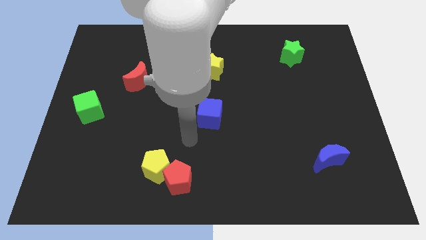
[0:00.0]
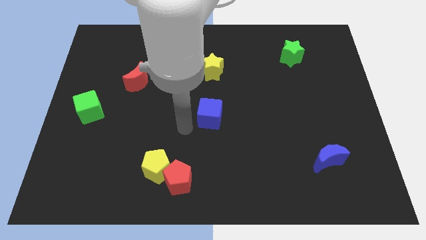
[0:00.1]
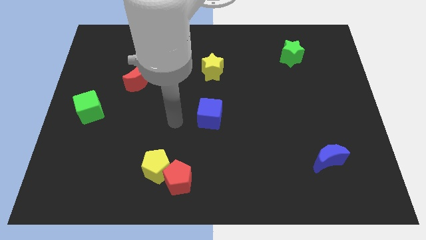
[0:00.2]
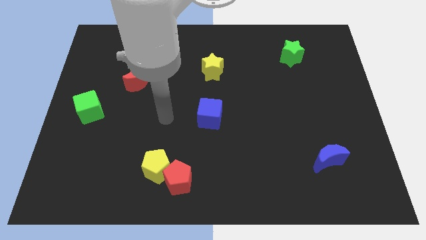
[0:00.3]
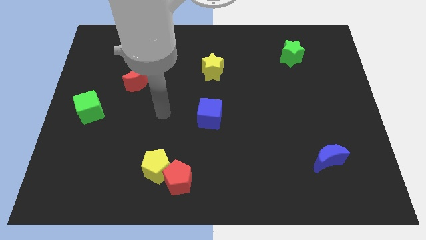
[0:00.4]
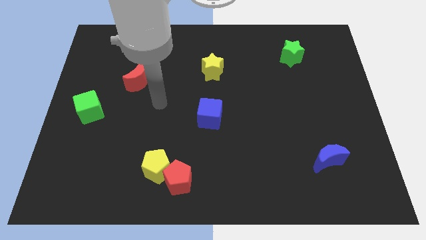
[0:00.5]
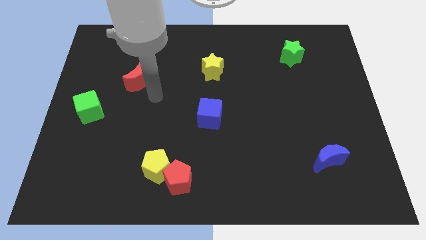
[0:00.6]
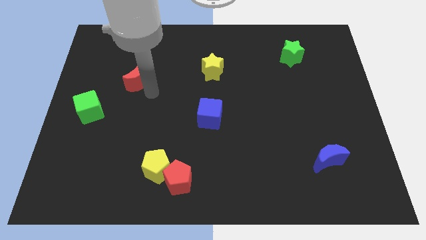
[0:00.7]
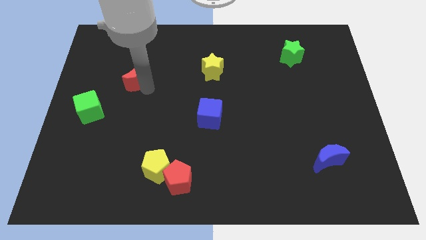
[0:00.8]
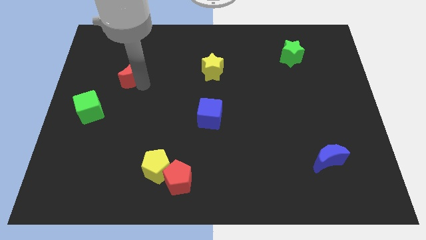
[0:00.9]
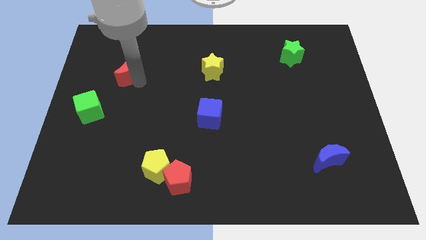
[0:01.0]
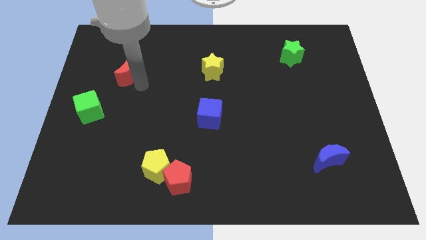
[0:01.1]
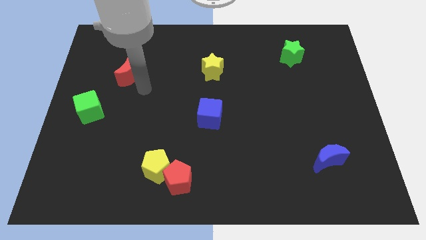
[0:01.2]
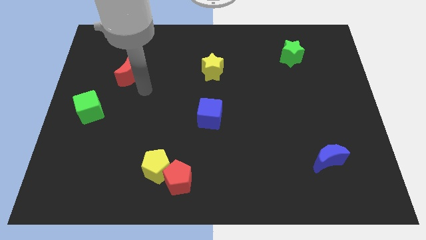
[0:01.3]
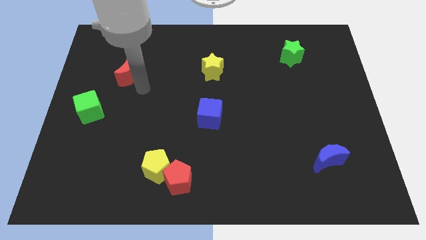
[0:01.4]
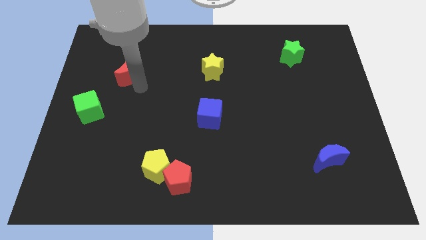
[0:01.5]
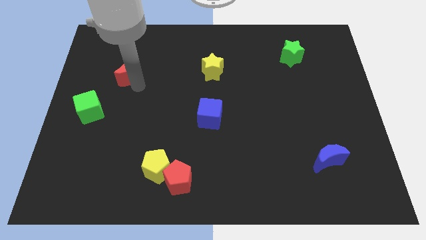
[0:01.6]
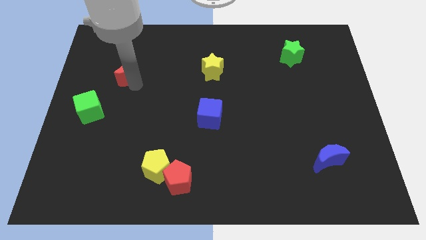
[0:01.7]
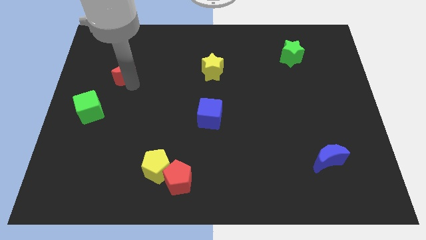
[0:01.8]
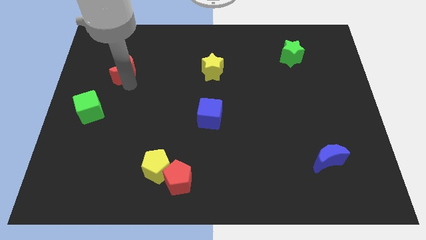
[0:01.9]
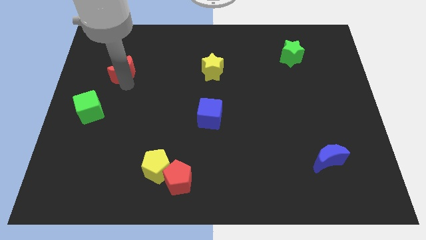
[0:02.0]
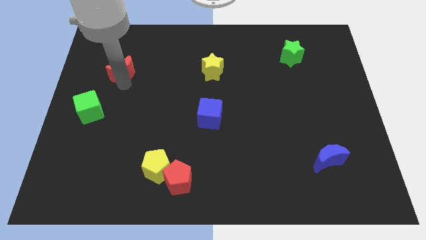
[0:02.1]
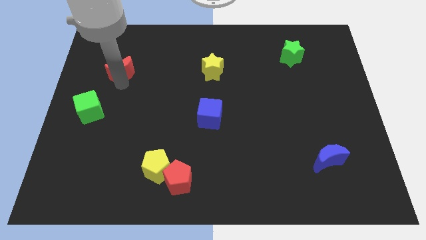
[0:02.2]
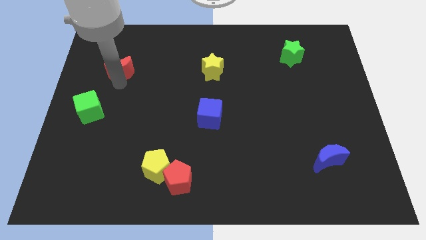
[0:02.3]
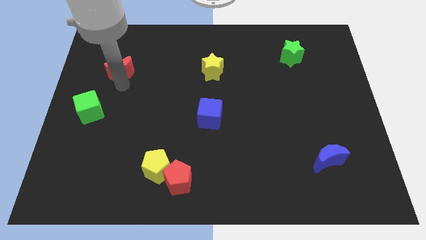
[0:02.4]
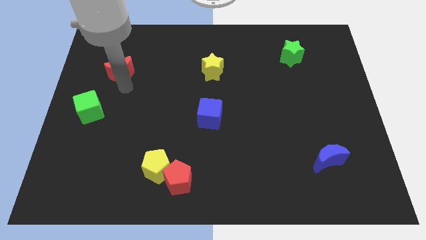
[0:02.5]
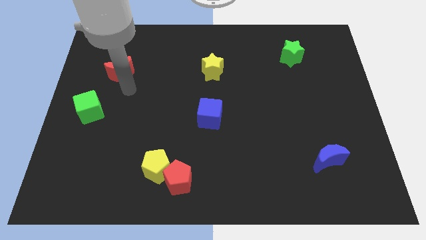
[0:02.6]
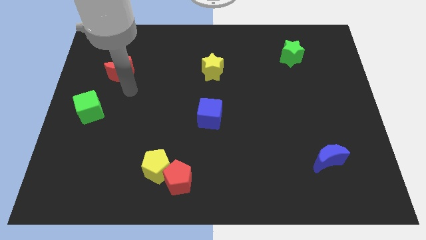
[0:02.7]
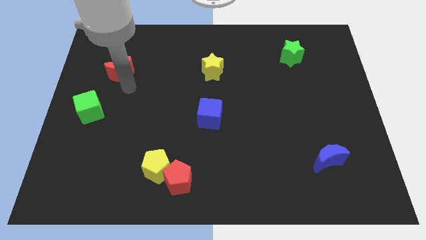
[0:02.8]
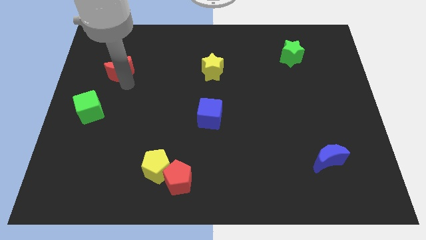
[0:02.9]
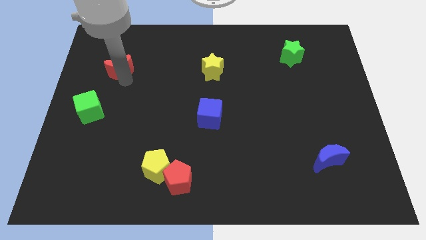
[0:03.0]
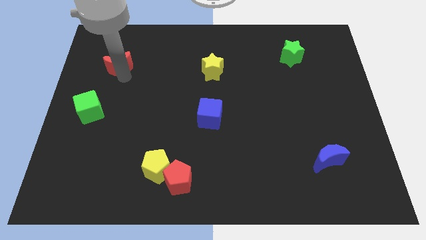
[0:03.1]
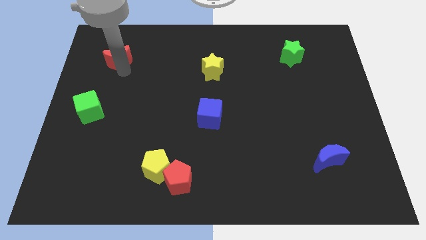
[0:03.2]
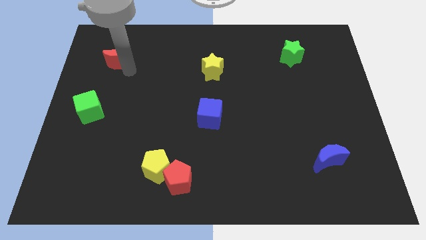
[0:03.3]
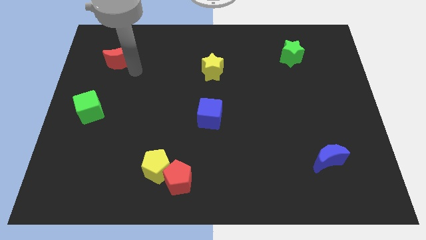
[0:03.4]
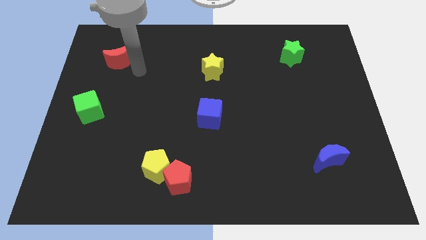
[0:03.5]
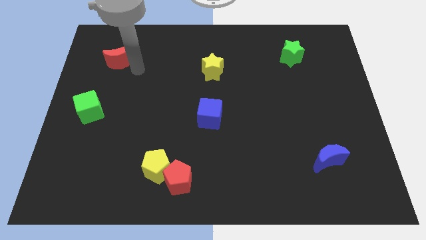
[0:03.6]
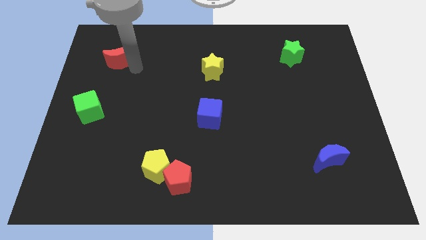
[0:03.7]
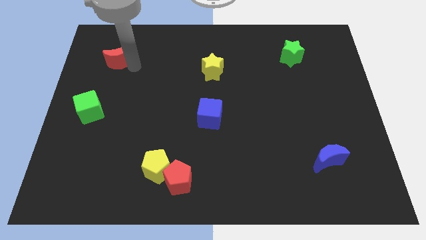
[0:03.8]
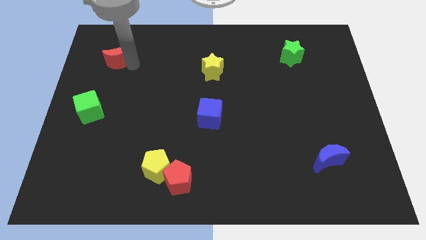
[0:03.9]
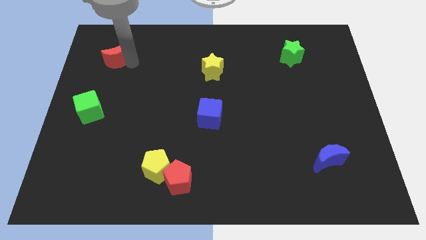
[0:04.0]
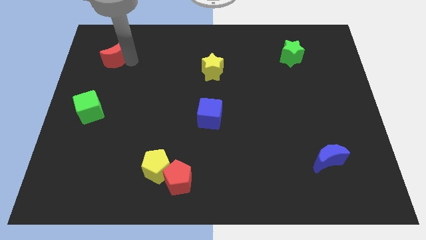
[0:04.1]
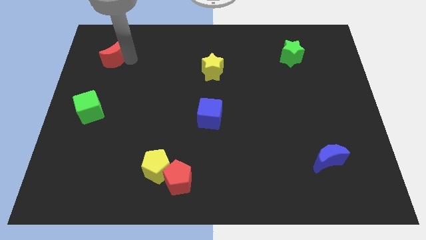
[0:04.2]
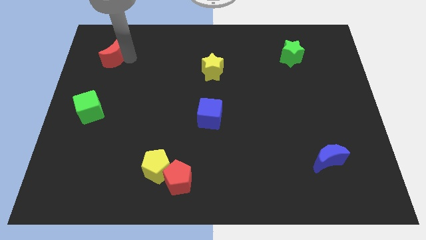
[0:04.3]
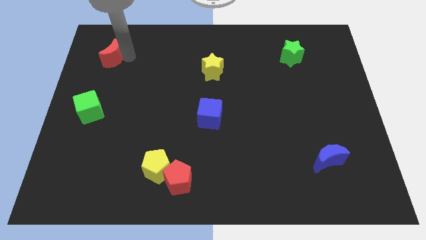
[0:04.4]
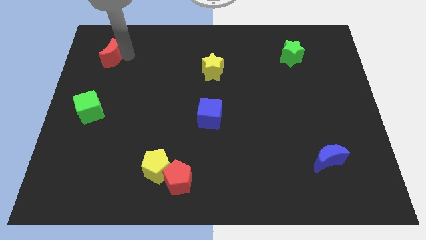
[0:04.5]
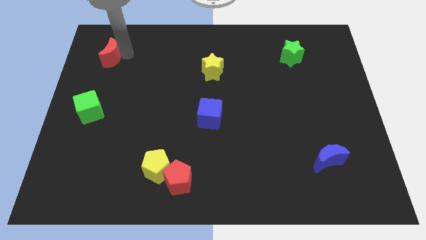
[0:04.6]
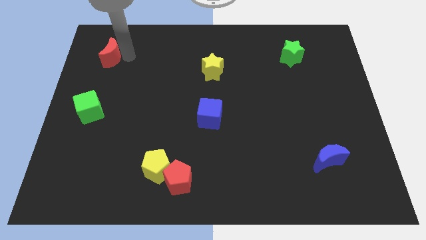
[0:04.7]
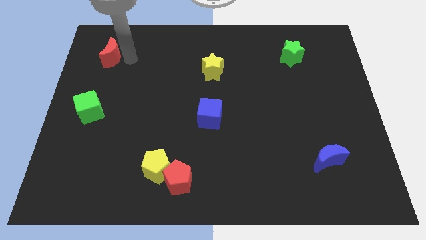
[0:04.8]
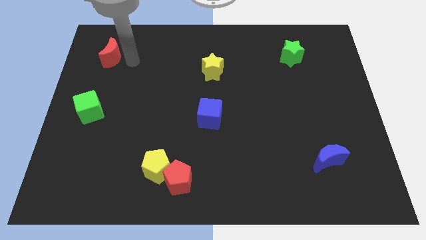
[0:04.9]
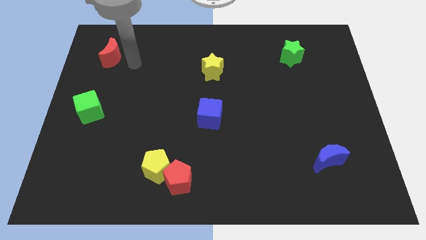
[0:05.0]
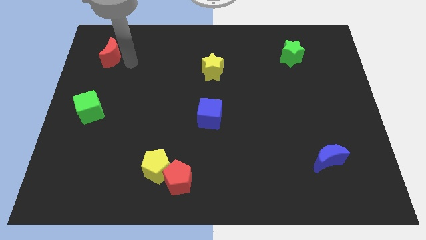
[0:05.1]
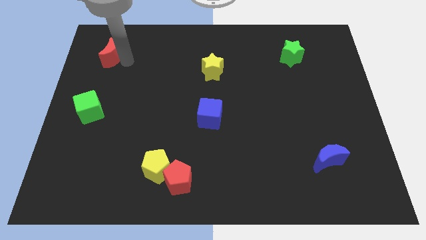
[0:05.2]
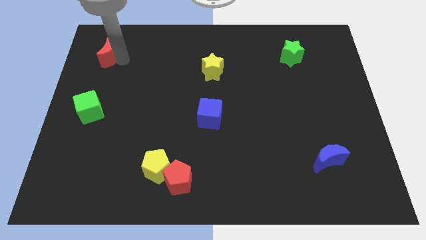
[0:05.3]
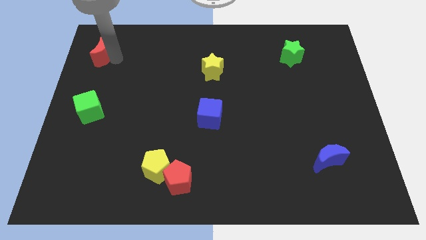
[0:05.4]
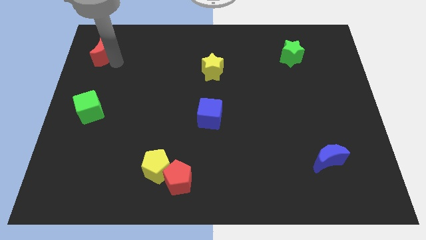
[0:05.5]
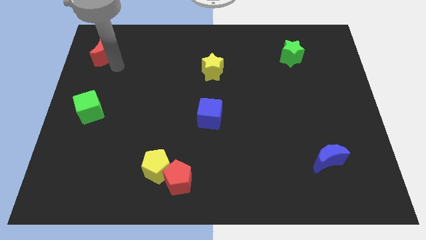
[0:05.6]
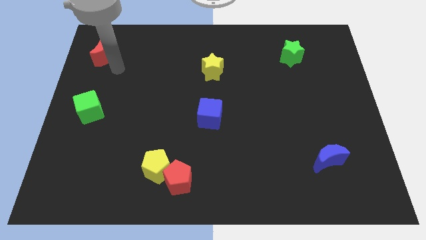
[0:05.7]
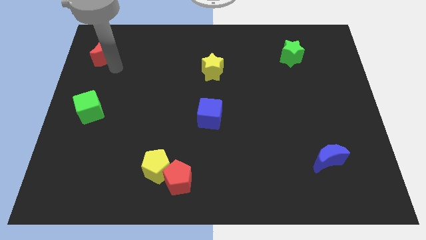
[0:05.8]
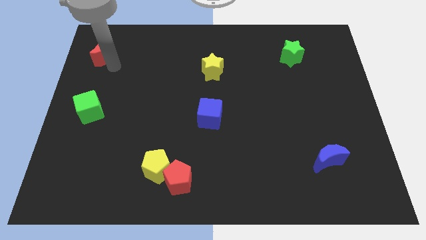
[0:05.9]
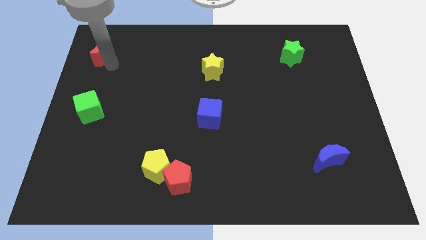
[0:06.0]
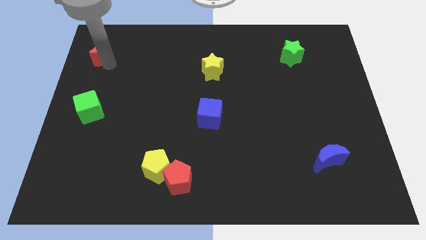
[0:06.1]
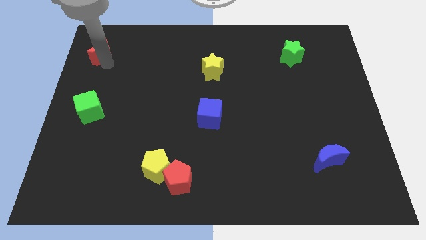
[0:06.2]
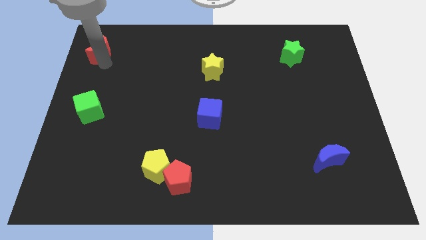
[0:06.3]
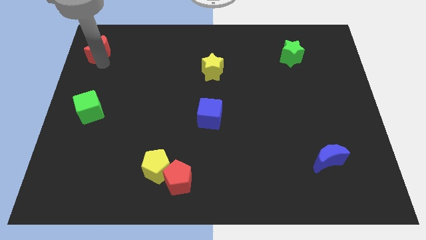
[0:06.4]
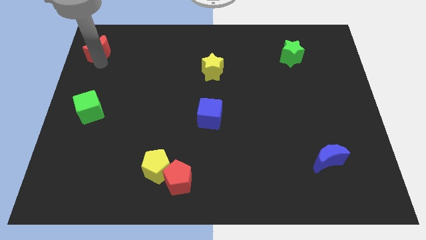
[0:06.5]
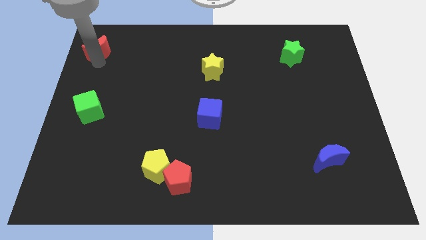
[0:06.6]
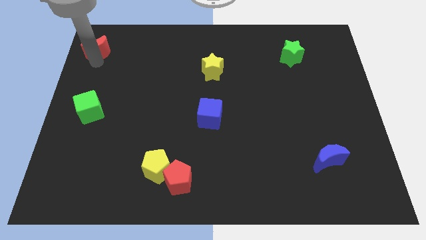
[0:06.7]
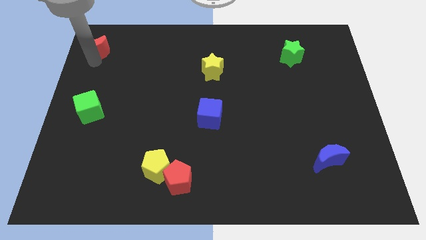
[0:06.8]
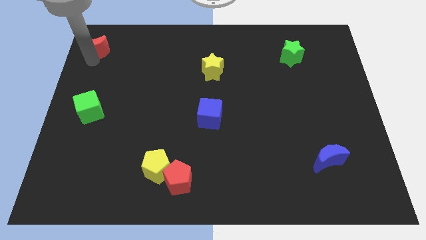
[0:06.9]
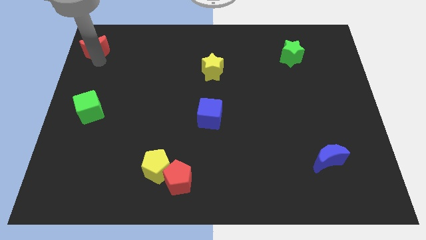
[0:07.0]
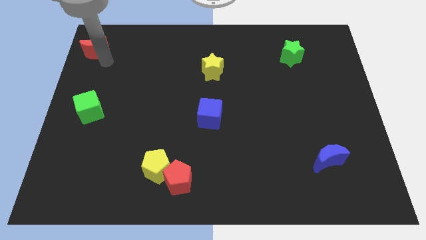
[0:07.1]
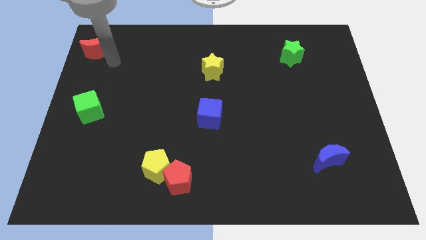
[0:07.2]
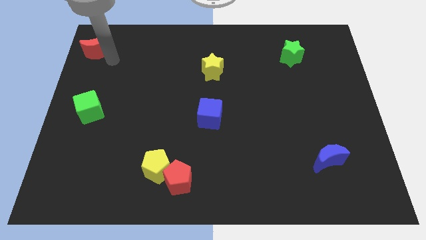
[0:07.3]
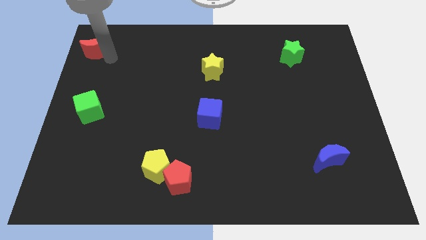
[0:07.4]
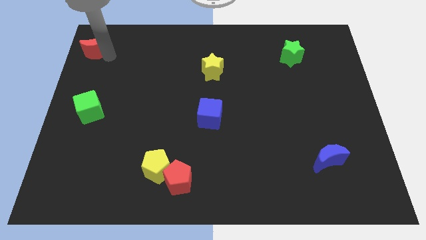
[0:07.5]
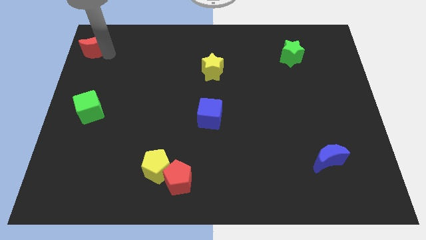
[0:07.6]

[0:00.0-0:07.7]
slide the red moon to the top left
